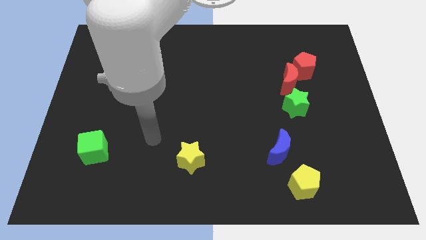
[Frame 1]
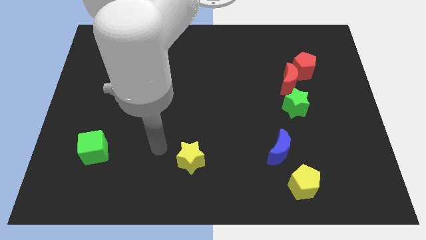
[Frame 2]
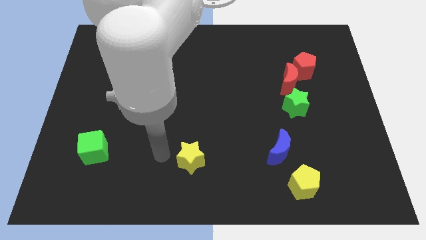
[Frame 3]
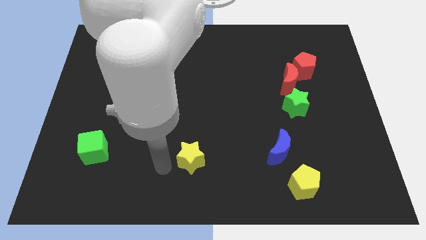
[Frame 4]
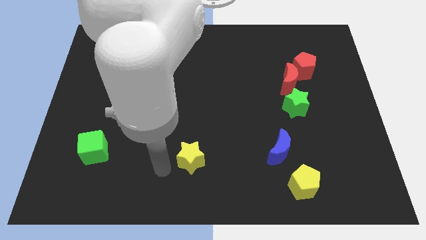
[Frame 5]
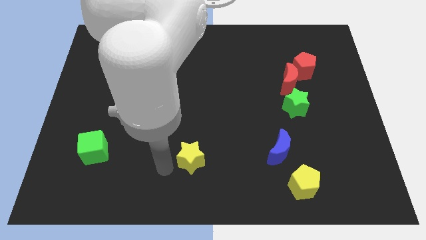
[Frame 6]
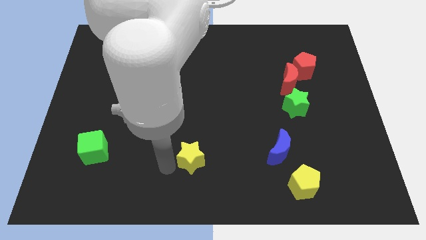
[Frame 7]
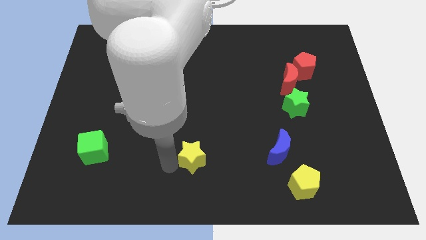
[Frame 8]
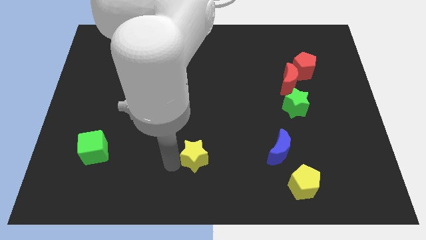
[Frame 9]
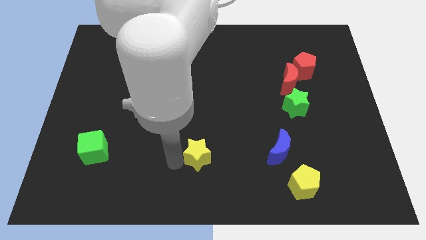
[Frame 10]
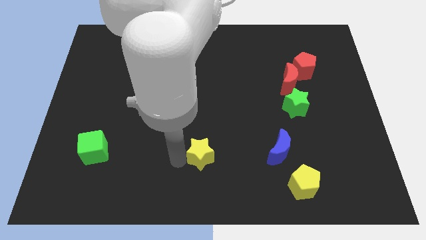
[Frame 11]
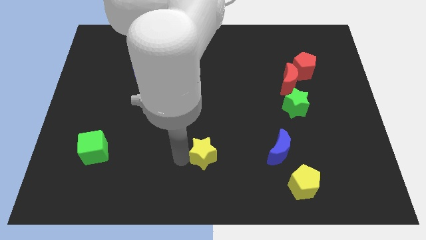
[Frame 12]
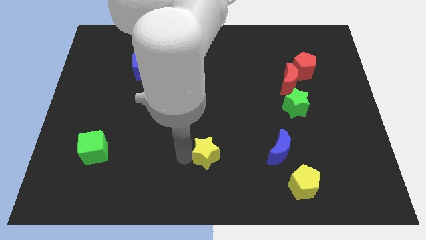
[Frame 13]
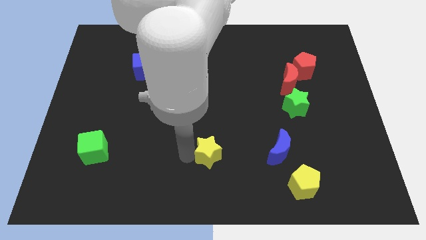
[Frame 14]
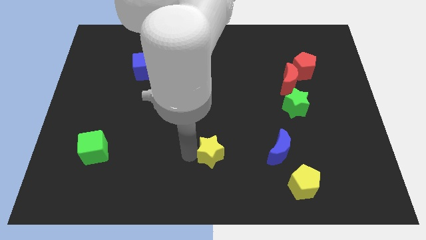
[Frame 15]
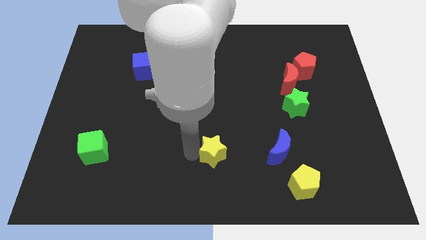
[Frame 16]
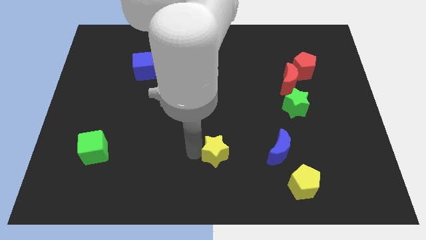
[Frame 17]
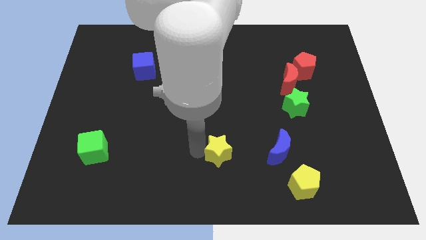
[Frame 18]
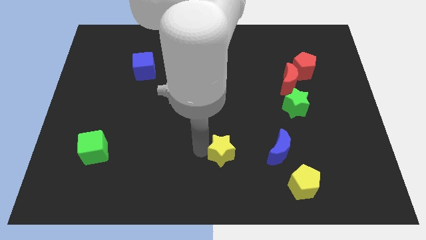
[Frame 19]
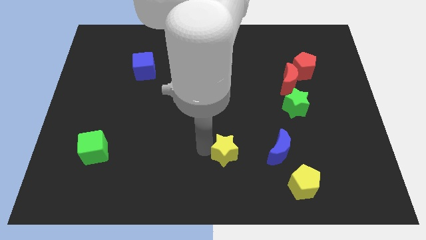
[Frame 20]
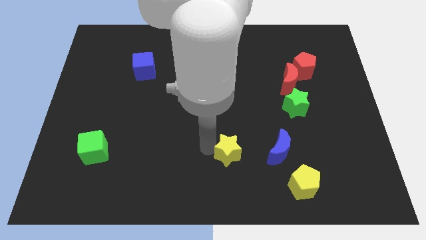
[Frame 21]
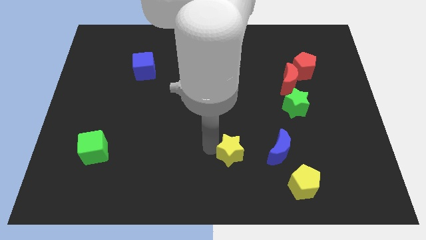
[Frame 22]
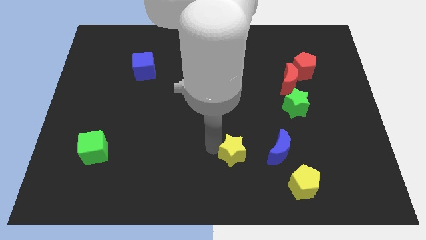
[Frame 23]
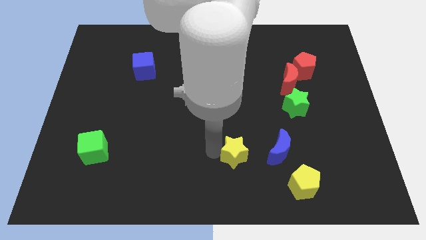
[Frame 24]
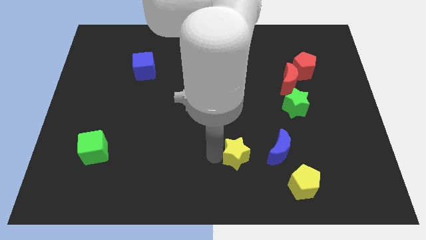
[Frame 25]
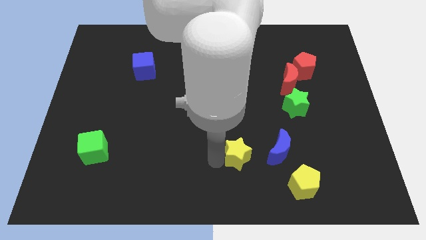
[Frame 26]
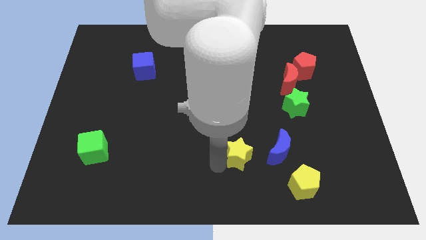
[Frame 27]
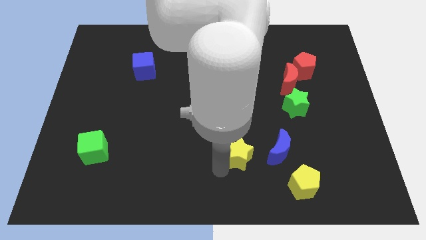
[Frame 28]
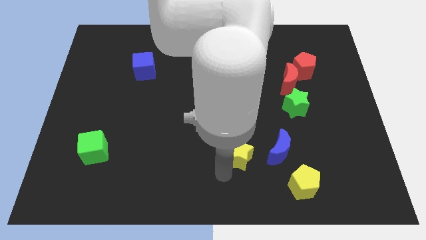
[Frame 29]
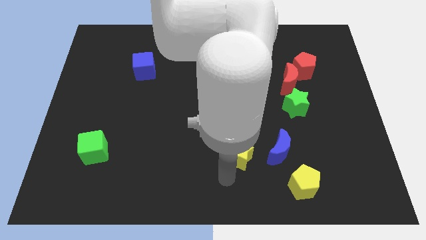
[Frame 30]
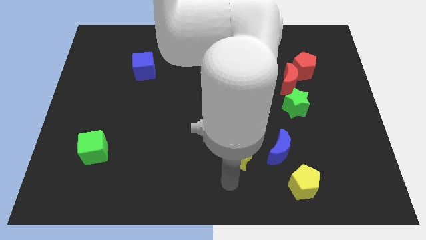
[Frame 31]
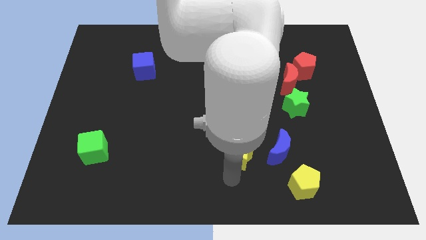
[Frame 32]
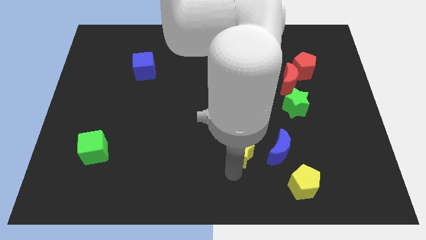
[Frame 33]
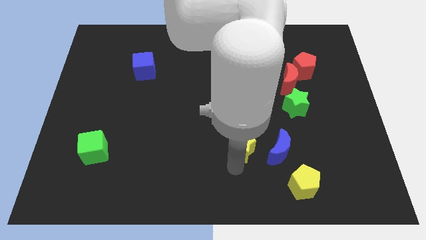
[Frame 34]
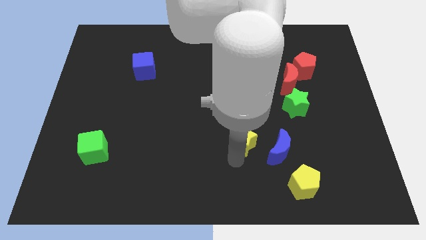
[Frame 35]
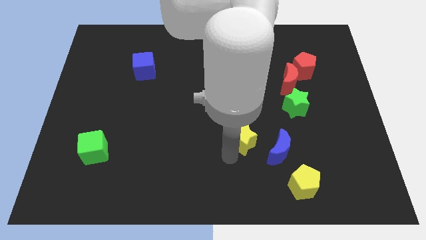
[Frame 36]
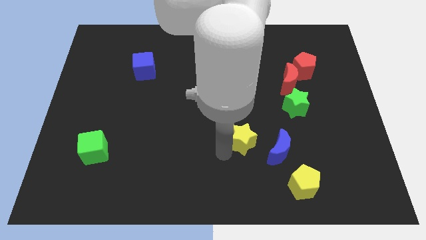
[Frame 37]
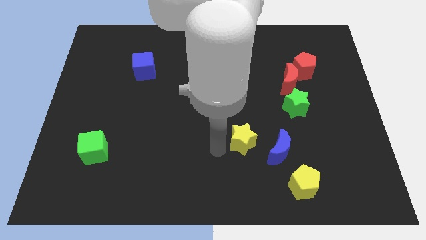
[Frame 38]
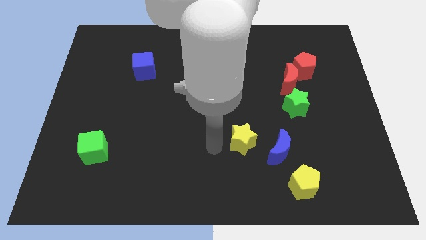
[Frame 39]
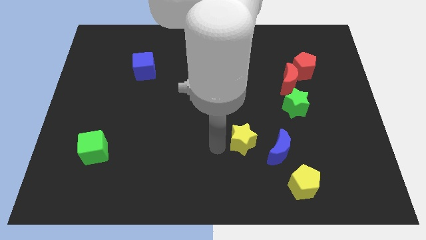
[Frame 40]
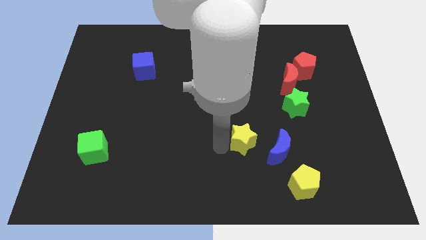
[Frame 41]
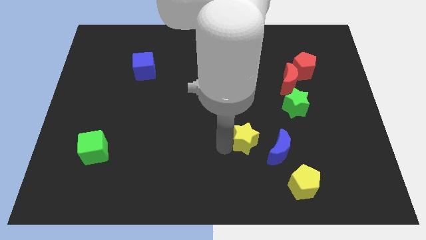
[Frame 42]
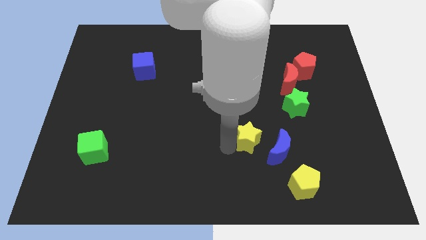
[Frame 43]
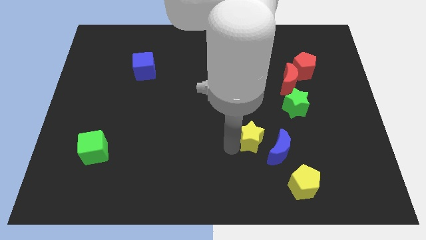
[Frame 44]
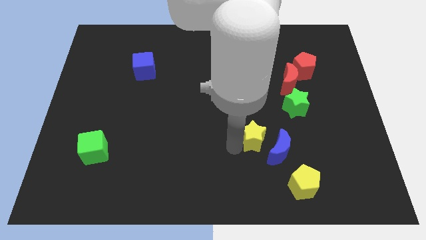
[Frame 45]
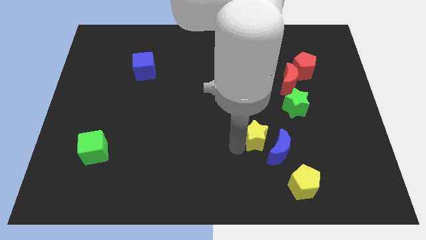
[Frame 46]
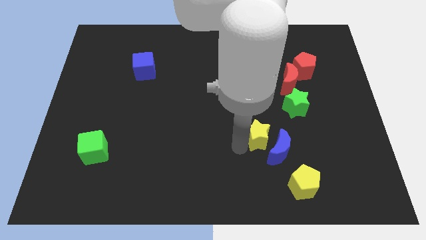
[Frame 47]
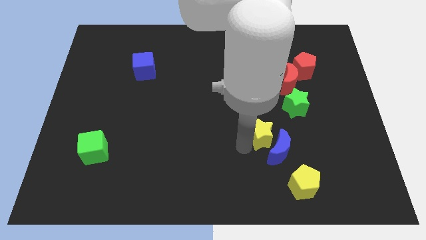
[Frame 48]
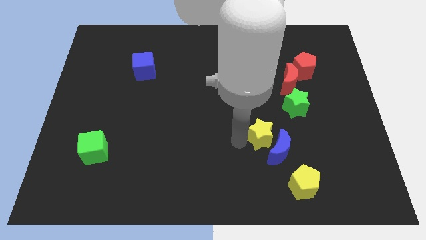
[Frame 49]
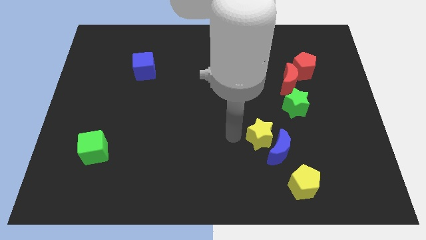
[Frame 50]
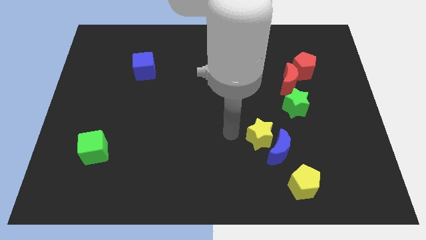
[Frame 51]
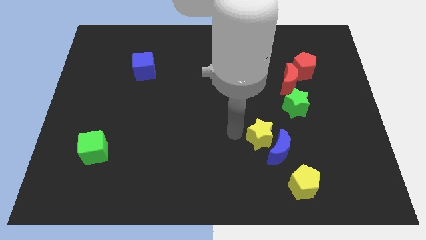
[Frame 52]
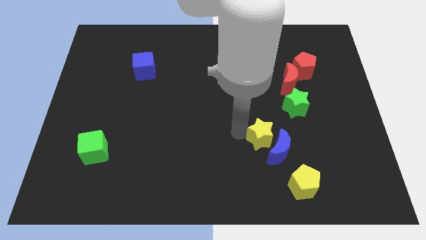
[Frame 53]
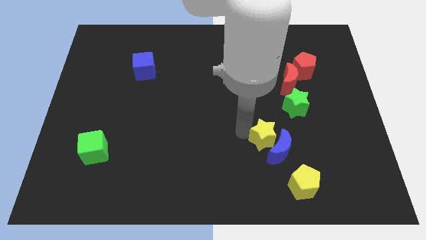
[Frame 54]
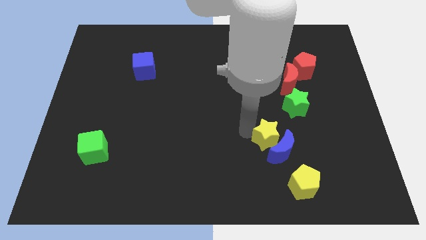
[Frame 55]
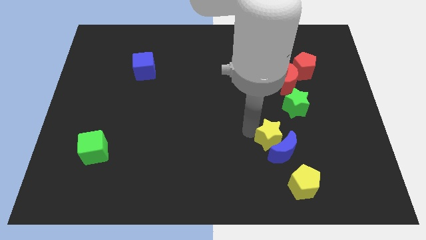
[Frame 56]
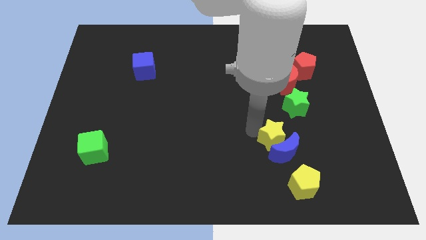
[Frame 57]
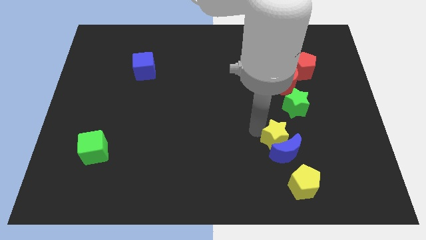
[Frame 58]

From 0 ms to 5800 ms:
move the yellow star to the top of the yellow pentagon

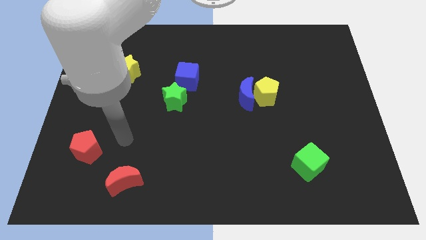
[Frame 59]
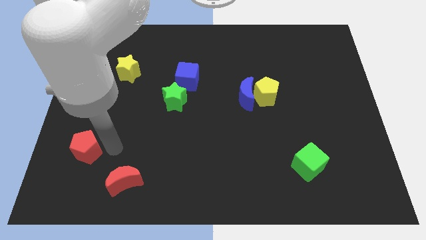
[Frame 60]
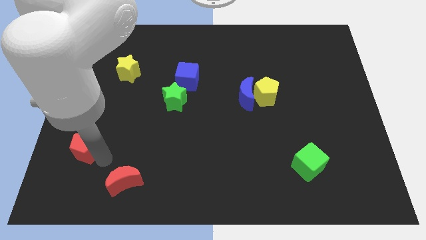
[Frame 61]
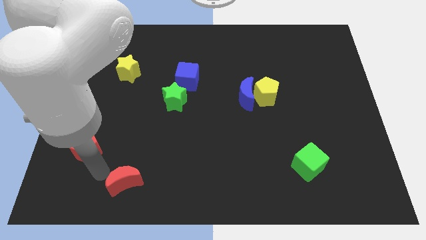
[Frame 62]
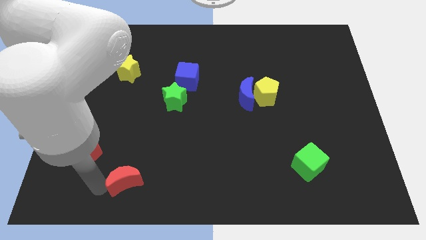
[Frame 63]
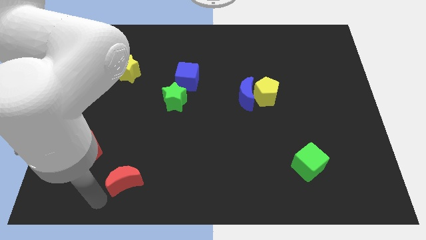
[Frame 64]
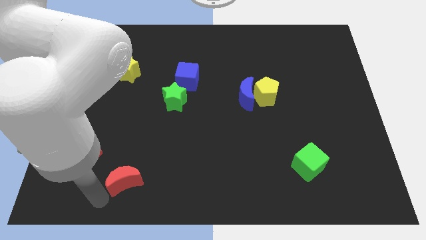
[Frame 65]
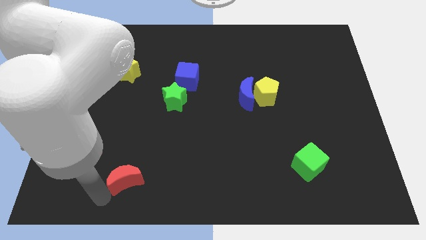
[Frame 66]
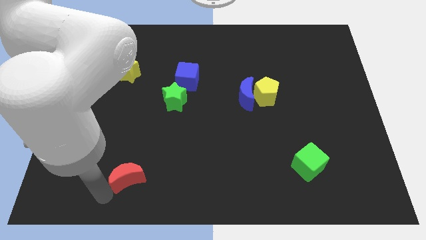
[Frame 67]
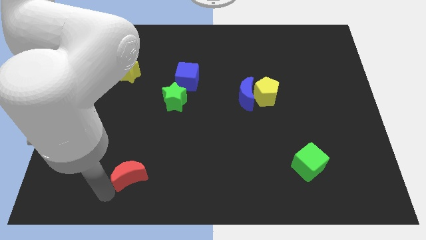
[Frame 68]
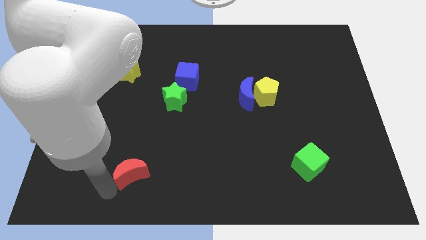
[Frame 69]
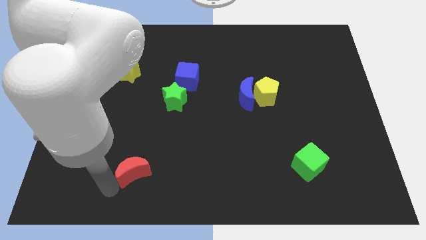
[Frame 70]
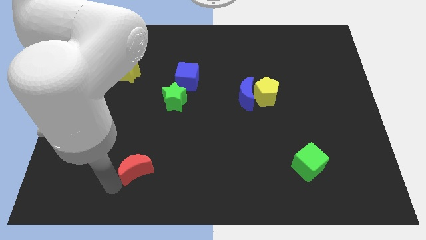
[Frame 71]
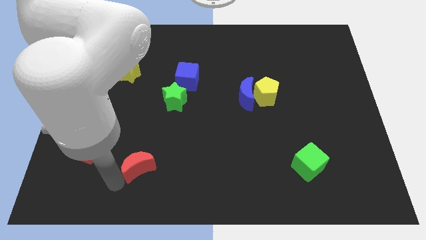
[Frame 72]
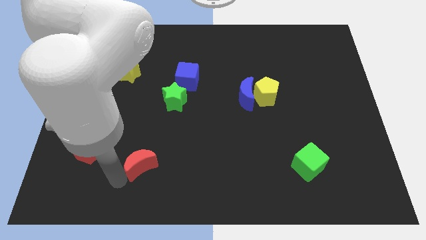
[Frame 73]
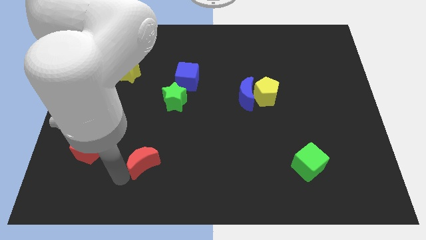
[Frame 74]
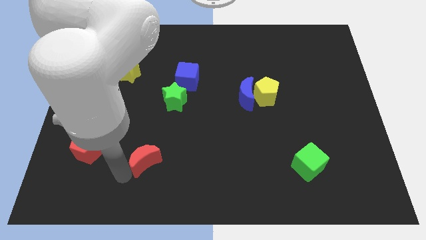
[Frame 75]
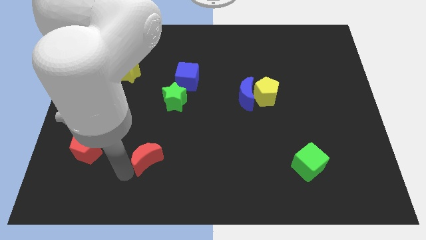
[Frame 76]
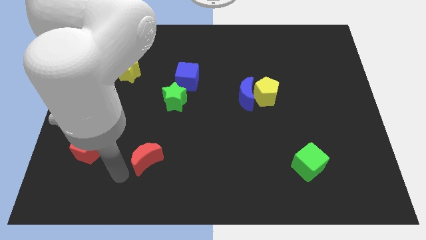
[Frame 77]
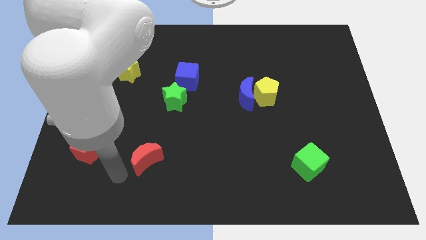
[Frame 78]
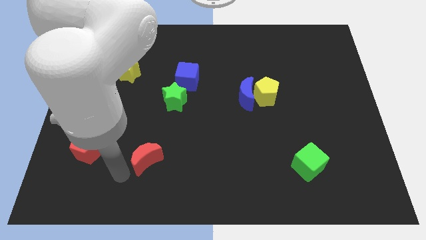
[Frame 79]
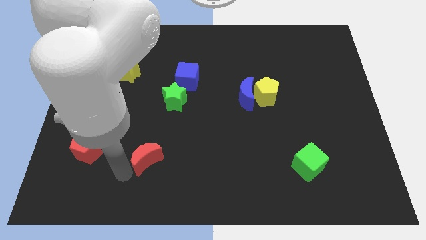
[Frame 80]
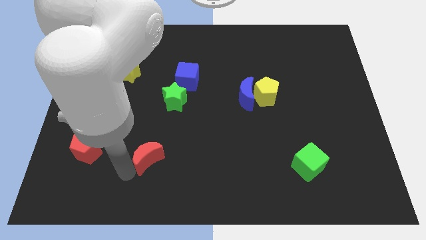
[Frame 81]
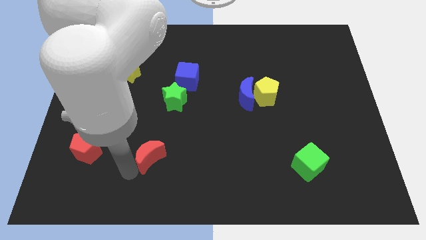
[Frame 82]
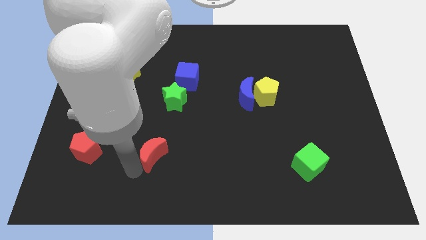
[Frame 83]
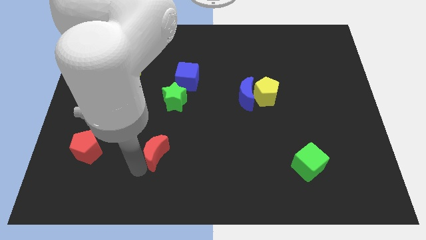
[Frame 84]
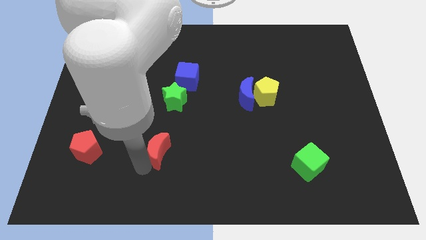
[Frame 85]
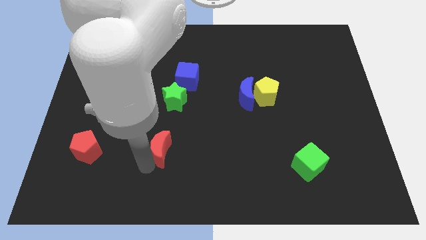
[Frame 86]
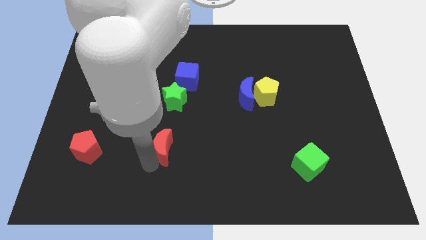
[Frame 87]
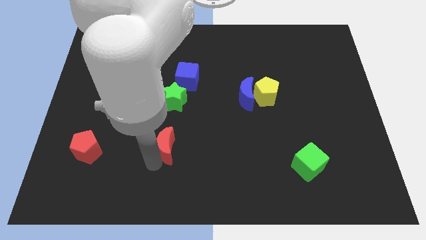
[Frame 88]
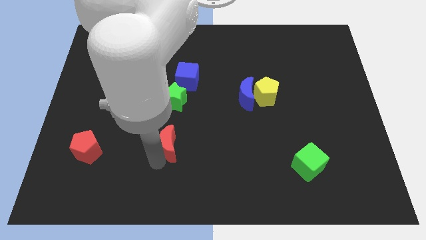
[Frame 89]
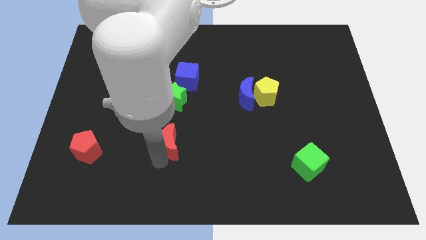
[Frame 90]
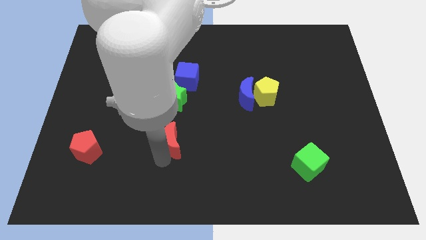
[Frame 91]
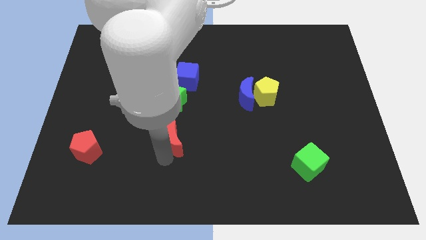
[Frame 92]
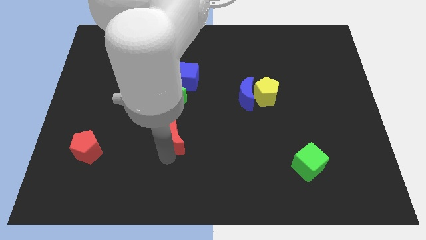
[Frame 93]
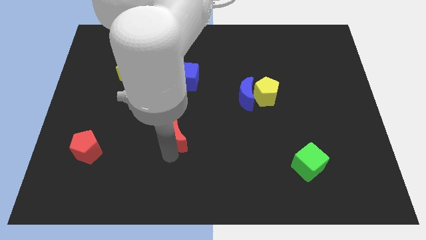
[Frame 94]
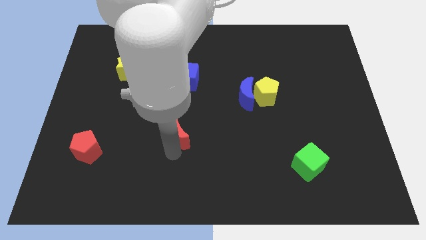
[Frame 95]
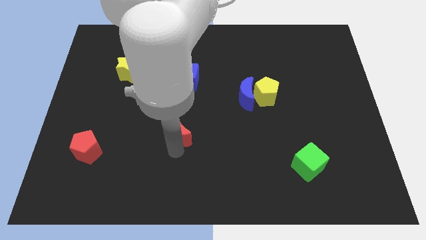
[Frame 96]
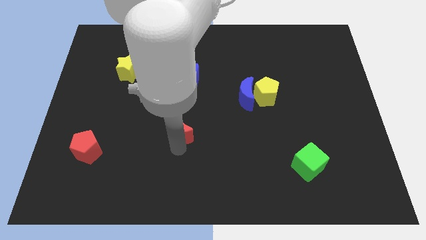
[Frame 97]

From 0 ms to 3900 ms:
slide the red moon diagonally down and to the right of the green star
